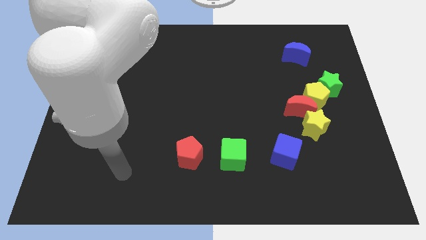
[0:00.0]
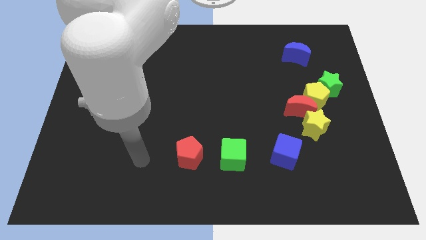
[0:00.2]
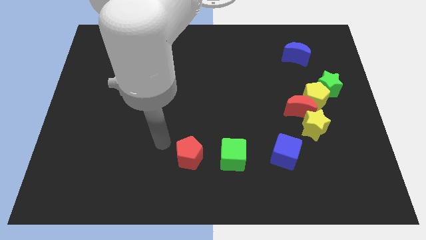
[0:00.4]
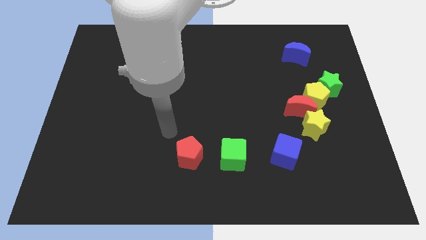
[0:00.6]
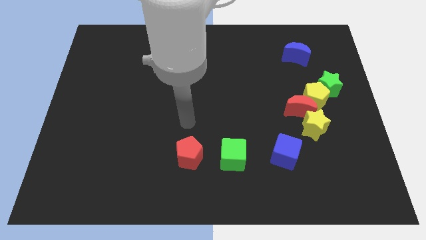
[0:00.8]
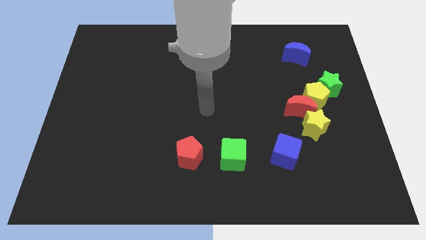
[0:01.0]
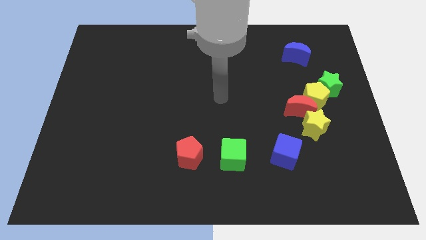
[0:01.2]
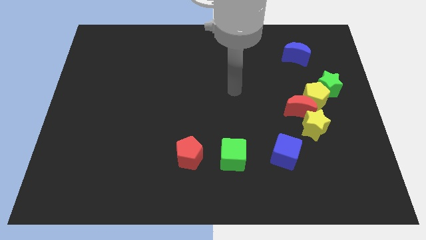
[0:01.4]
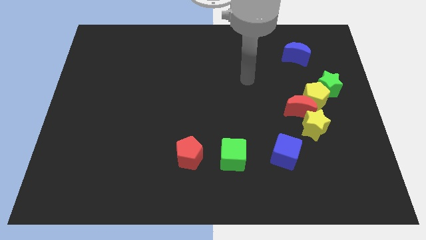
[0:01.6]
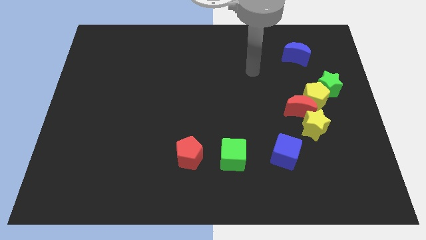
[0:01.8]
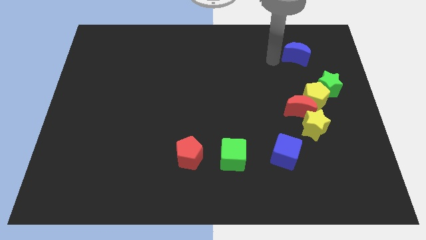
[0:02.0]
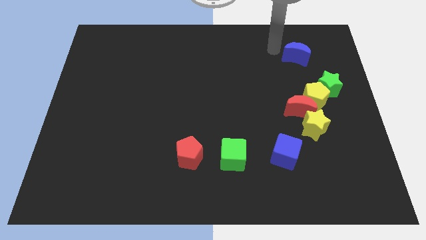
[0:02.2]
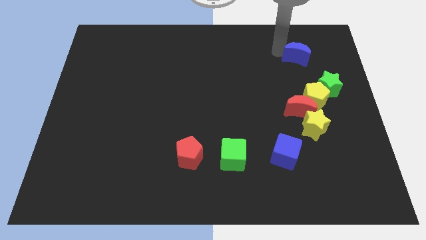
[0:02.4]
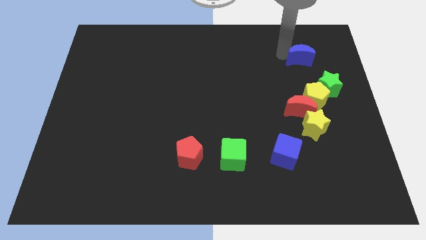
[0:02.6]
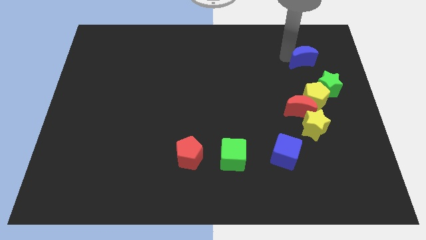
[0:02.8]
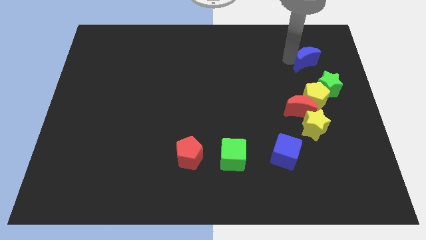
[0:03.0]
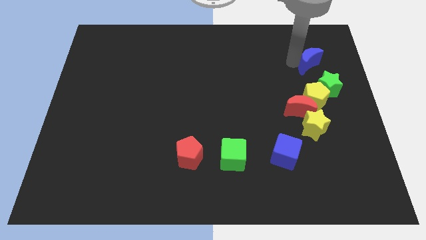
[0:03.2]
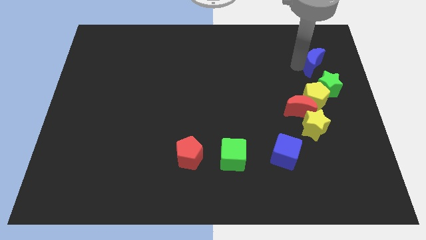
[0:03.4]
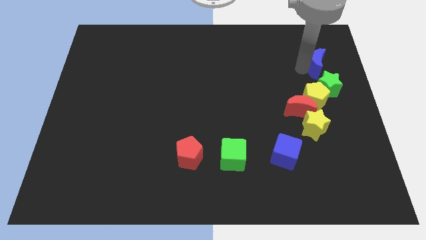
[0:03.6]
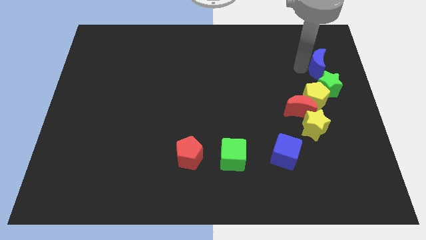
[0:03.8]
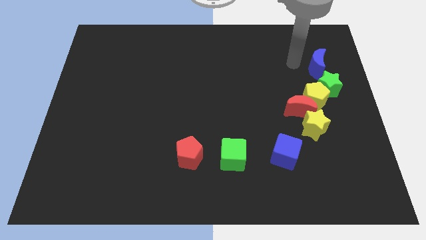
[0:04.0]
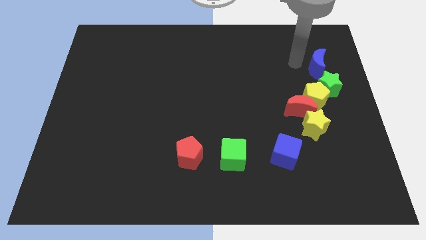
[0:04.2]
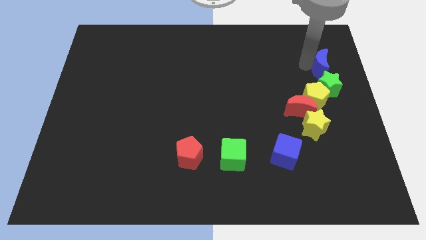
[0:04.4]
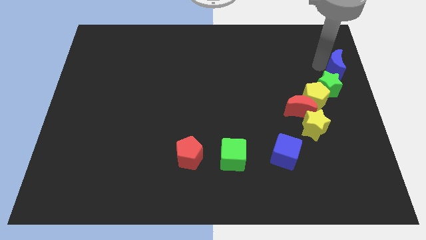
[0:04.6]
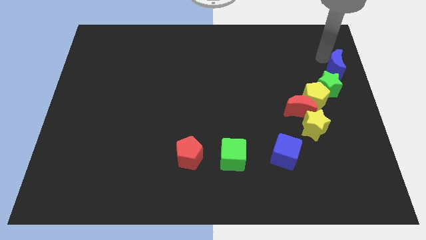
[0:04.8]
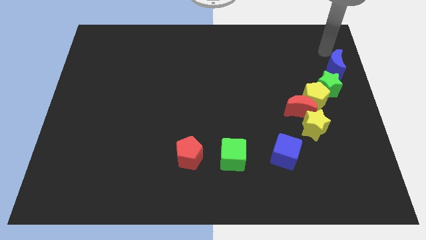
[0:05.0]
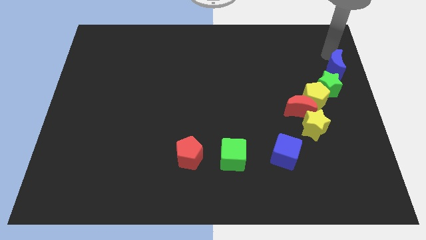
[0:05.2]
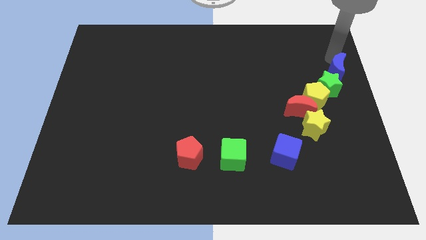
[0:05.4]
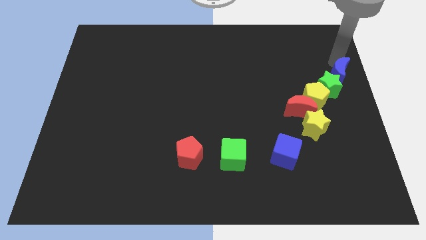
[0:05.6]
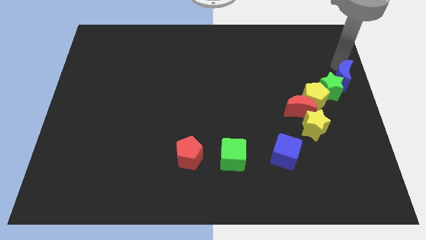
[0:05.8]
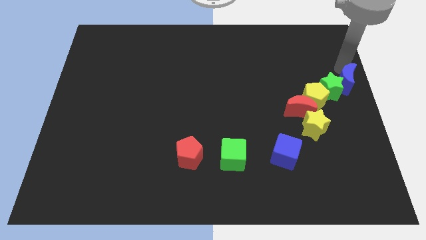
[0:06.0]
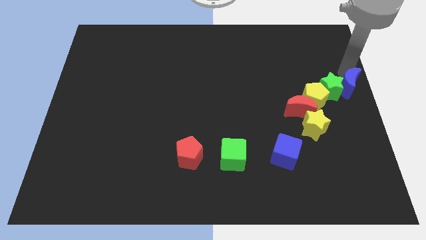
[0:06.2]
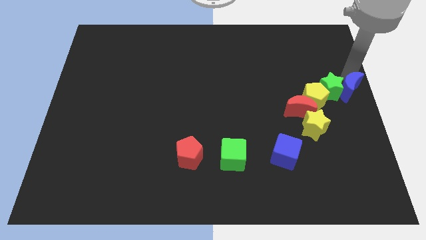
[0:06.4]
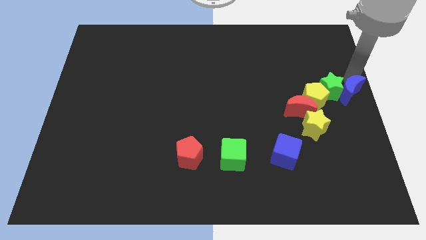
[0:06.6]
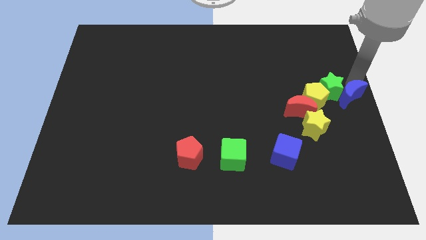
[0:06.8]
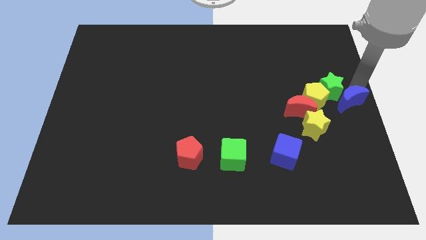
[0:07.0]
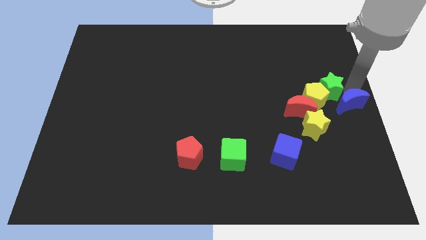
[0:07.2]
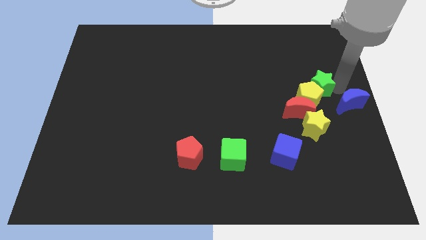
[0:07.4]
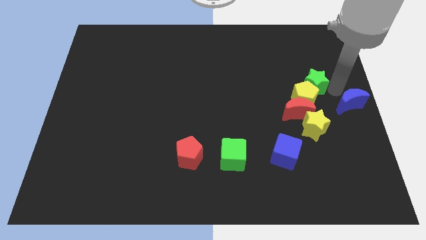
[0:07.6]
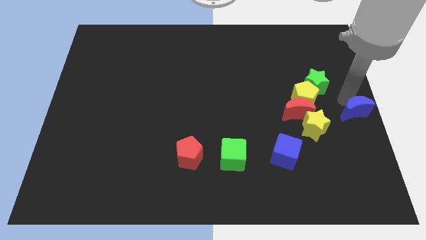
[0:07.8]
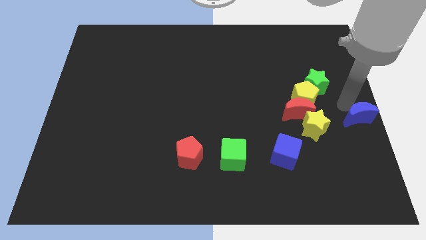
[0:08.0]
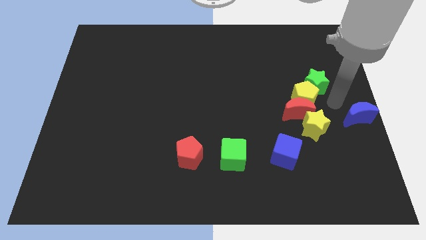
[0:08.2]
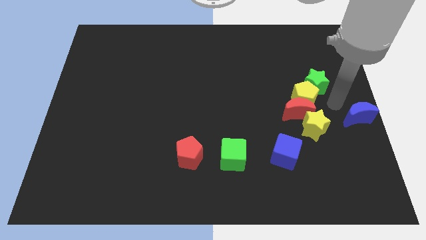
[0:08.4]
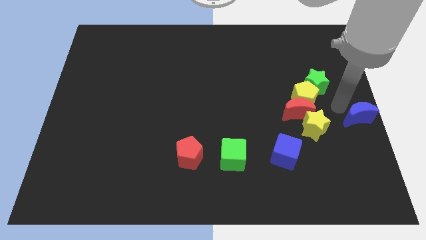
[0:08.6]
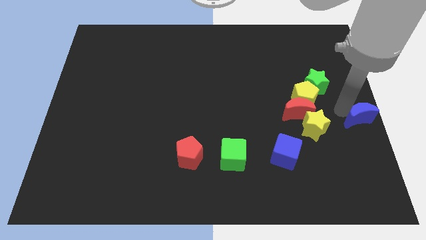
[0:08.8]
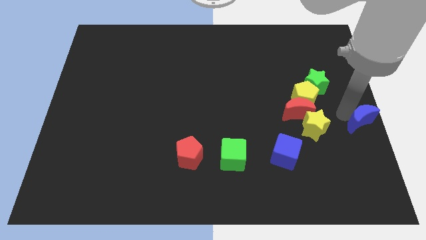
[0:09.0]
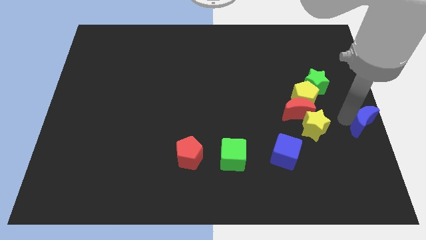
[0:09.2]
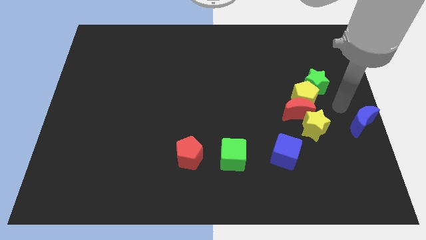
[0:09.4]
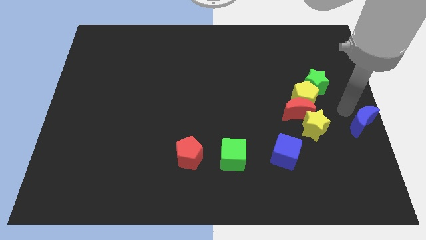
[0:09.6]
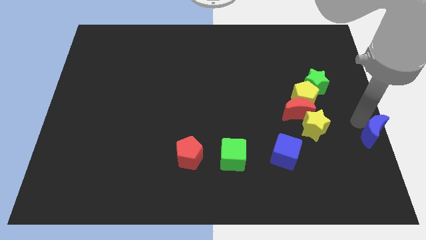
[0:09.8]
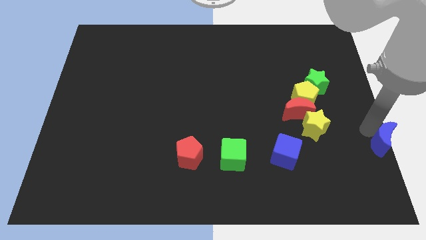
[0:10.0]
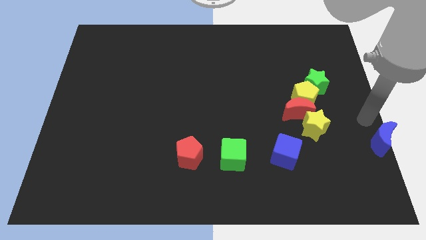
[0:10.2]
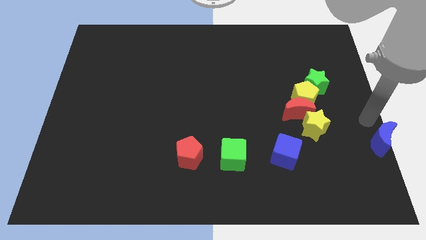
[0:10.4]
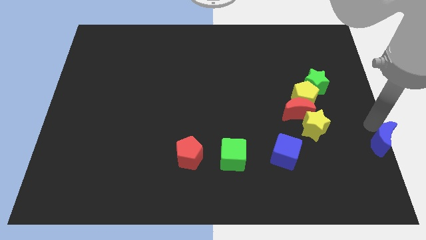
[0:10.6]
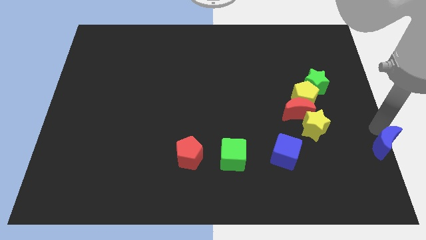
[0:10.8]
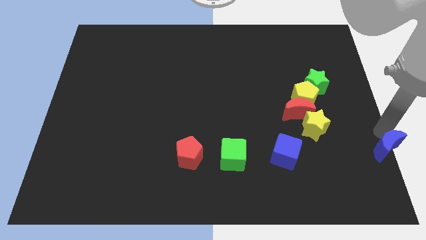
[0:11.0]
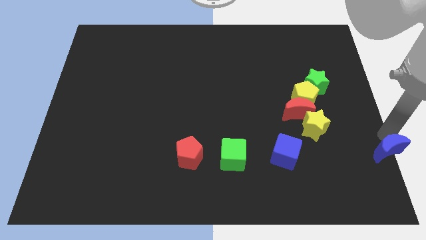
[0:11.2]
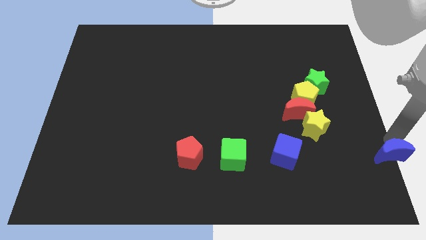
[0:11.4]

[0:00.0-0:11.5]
move the blue moon to the bottom right of the board
